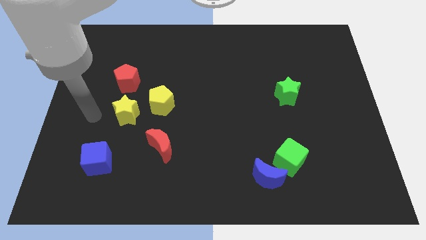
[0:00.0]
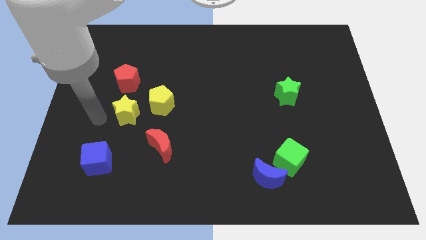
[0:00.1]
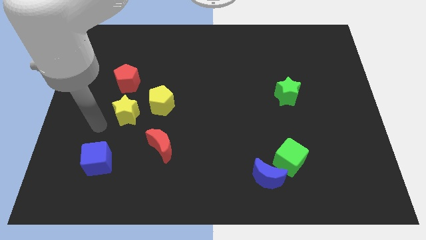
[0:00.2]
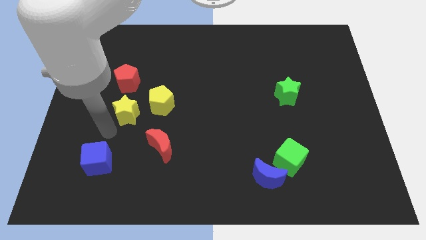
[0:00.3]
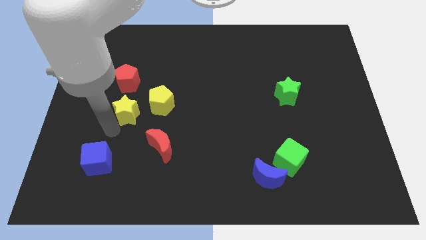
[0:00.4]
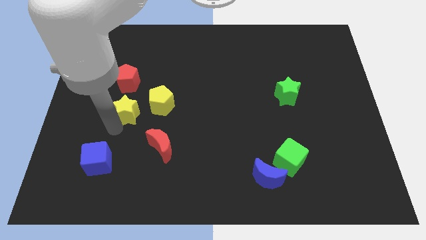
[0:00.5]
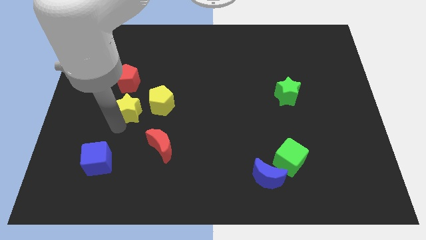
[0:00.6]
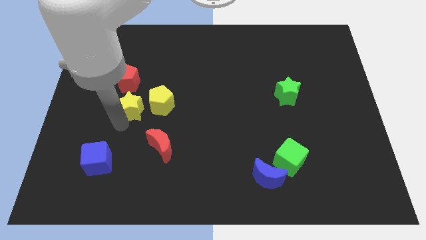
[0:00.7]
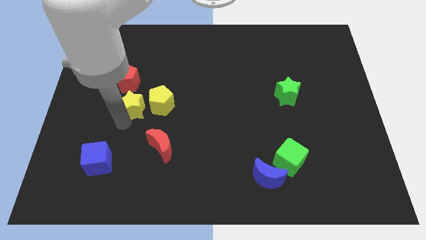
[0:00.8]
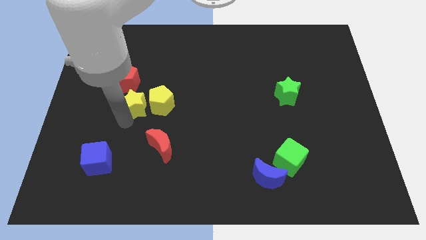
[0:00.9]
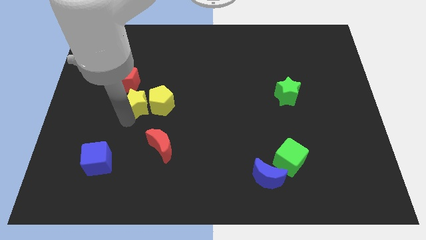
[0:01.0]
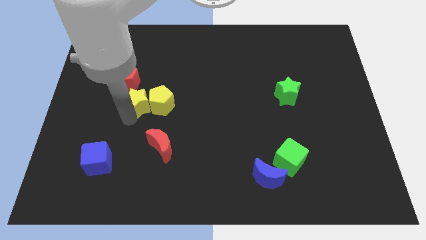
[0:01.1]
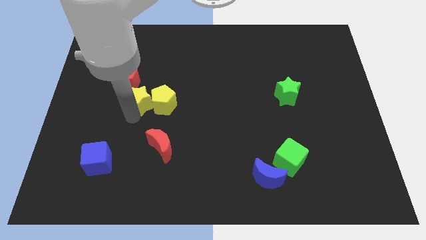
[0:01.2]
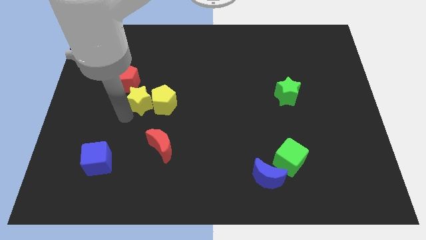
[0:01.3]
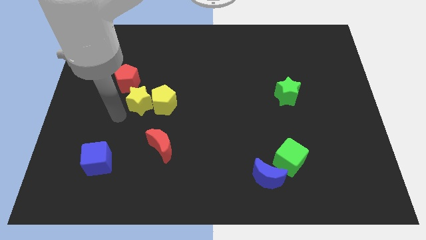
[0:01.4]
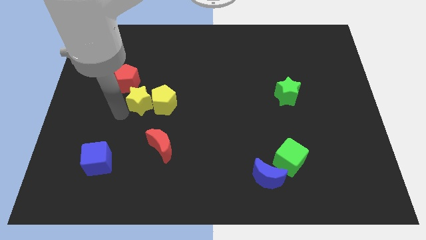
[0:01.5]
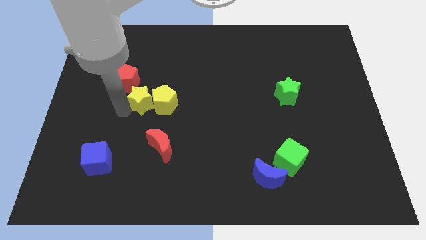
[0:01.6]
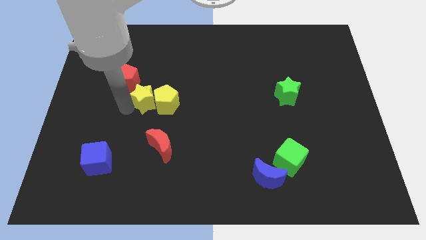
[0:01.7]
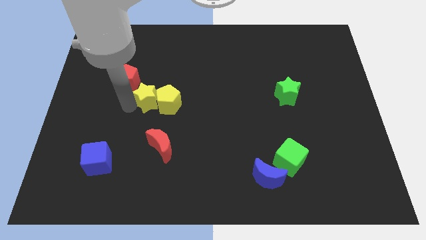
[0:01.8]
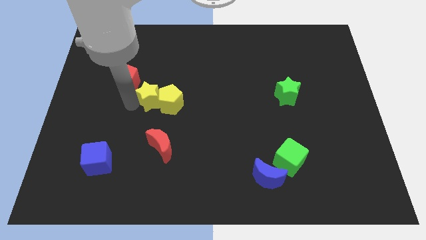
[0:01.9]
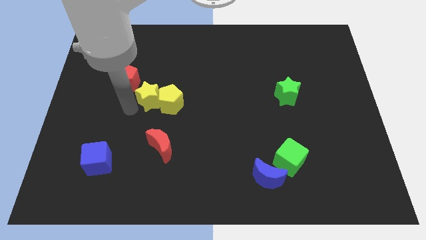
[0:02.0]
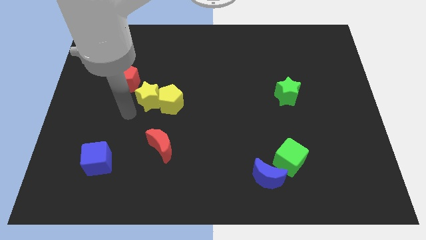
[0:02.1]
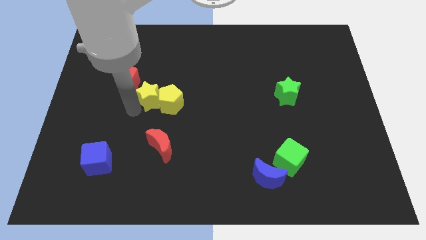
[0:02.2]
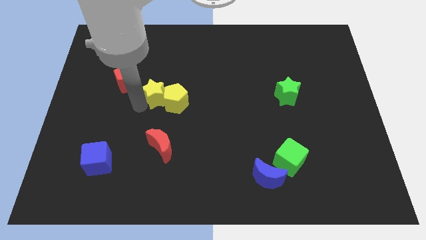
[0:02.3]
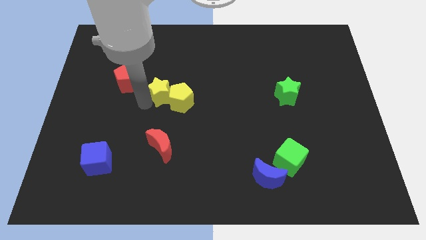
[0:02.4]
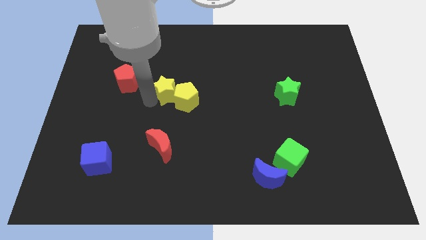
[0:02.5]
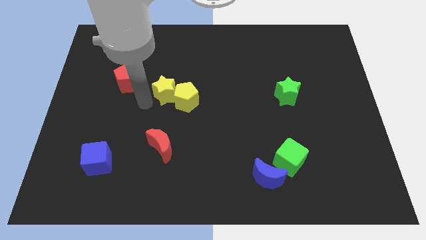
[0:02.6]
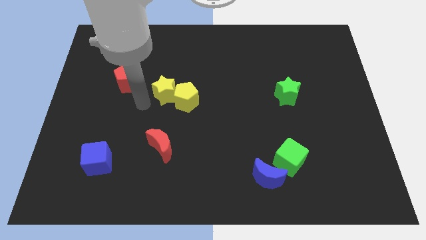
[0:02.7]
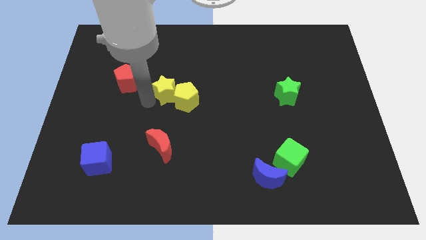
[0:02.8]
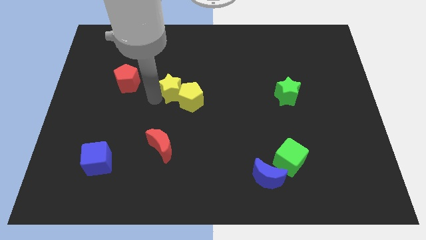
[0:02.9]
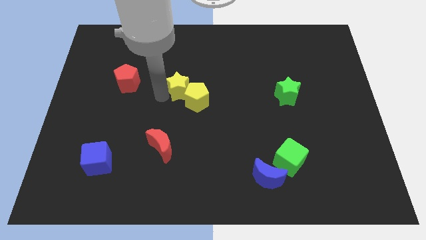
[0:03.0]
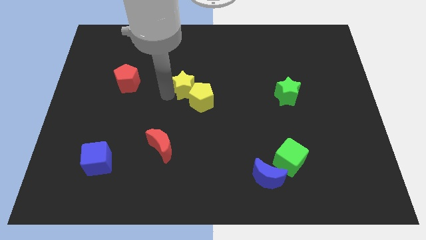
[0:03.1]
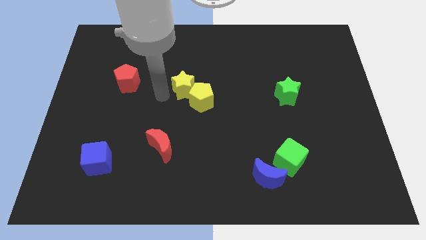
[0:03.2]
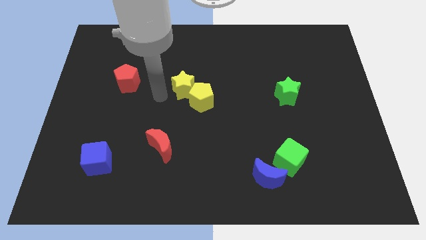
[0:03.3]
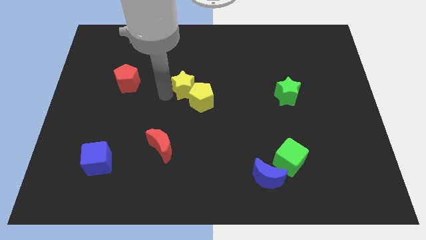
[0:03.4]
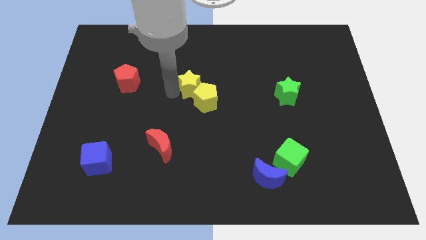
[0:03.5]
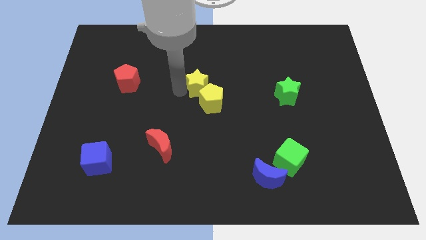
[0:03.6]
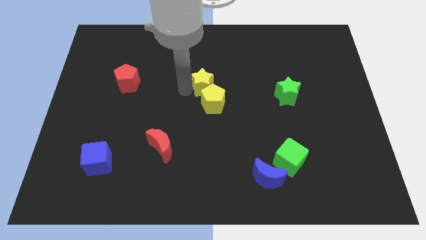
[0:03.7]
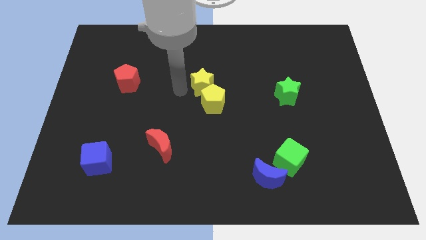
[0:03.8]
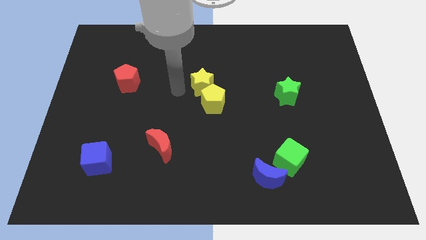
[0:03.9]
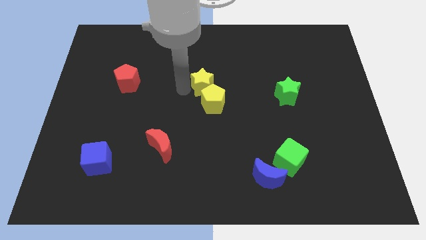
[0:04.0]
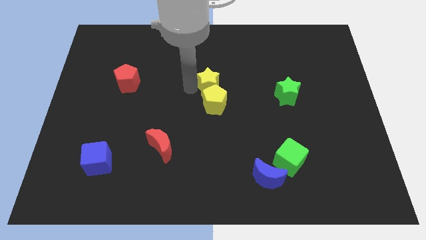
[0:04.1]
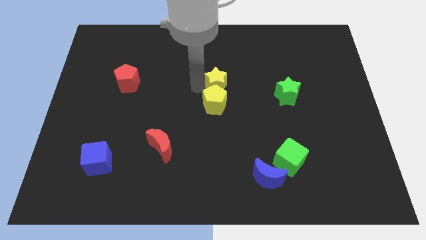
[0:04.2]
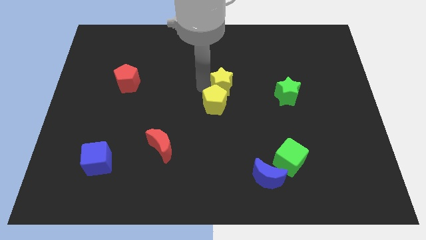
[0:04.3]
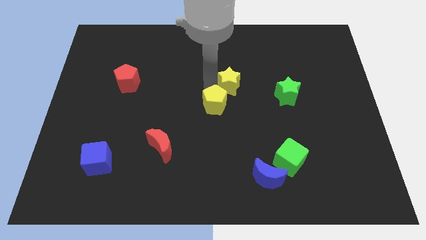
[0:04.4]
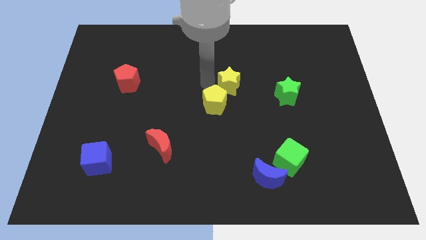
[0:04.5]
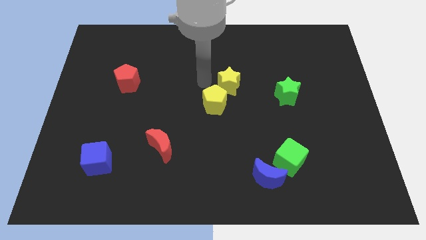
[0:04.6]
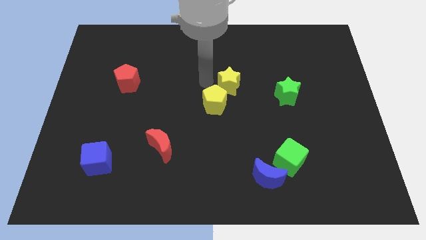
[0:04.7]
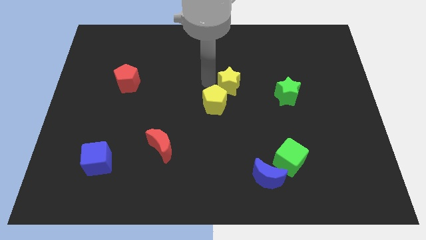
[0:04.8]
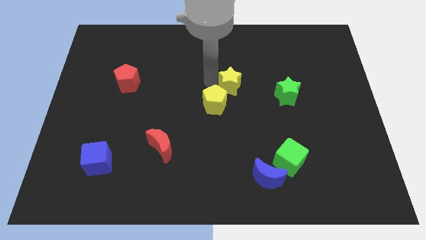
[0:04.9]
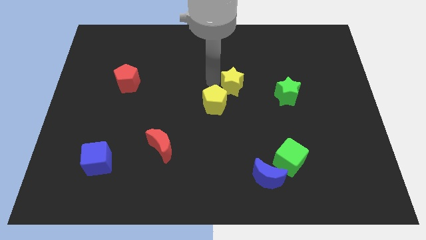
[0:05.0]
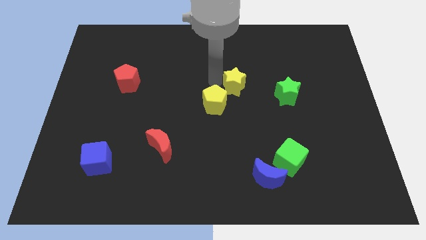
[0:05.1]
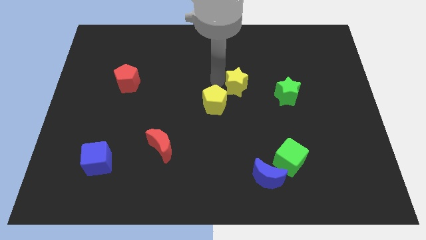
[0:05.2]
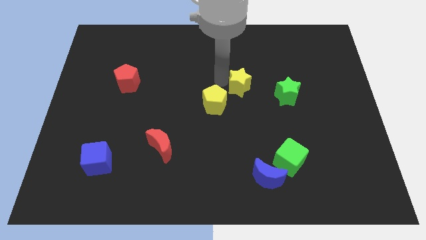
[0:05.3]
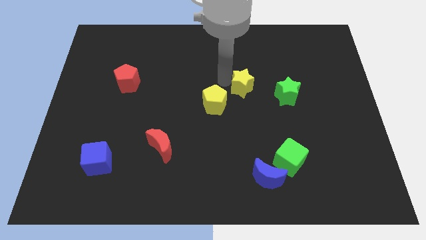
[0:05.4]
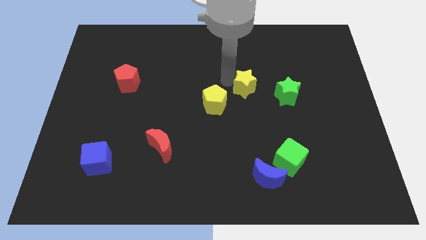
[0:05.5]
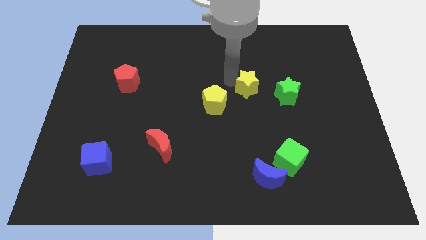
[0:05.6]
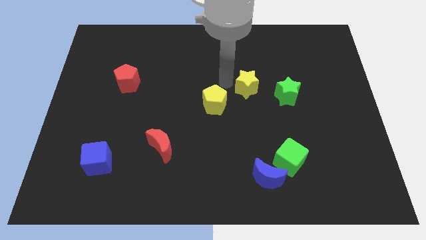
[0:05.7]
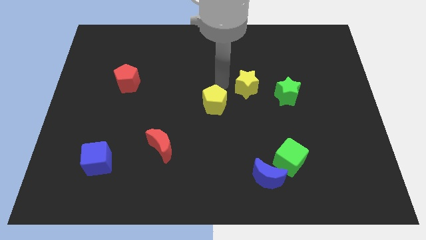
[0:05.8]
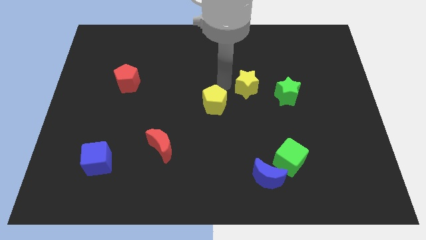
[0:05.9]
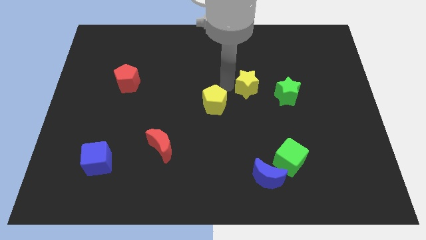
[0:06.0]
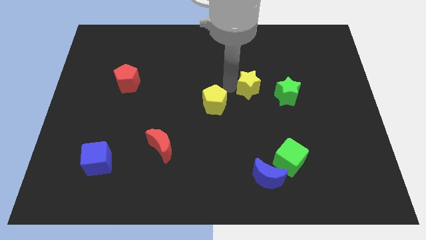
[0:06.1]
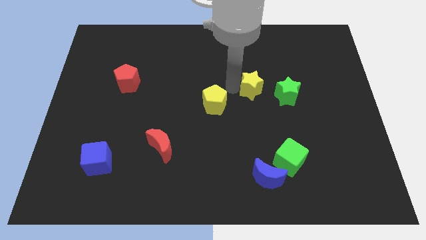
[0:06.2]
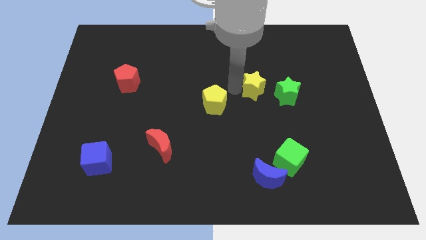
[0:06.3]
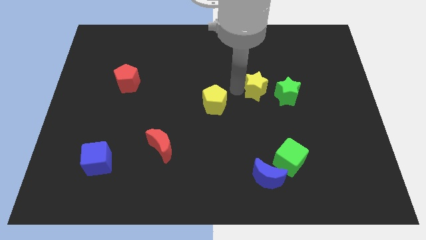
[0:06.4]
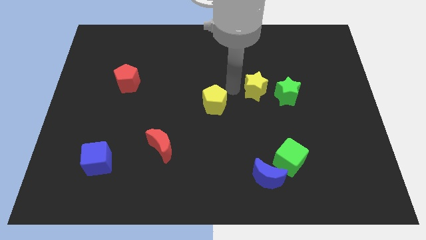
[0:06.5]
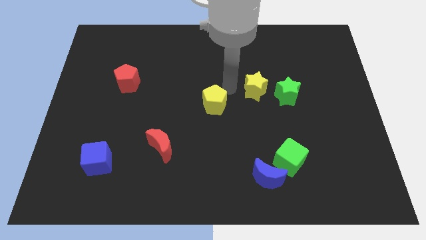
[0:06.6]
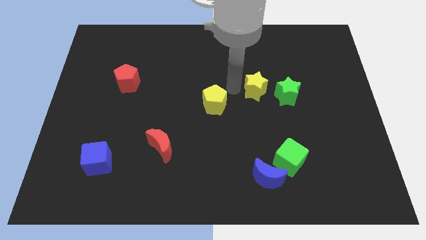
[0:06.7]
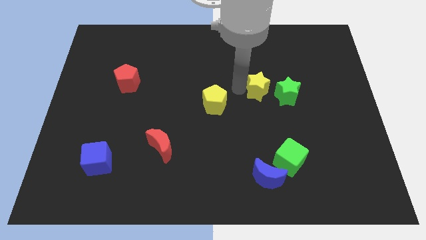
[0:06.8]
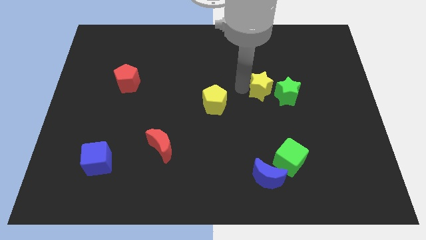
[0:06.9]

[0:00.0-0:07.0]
push the yellow star to the green star

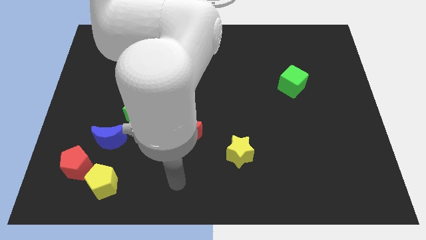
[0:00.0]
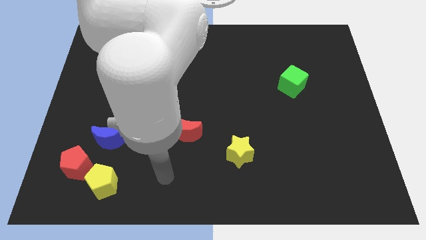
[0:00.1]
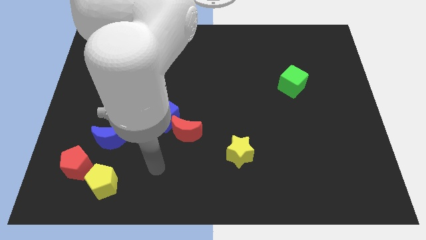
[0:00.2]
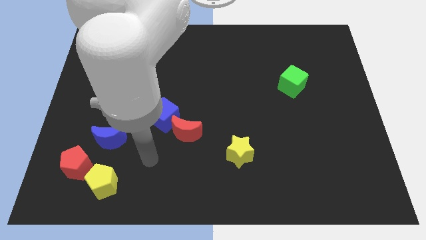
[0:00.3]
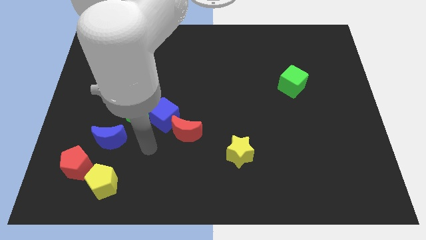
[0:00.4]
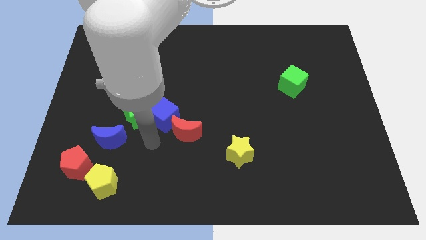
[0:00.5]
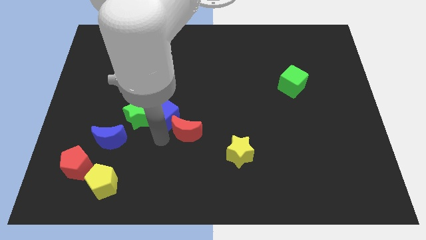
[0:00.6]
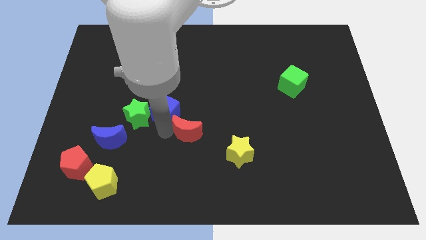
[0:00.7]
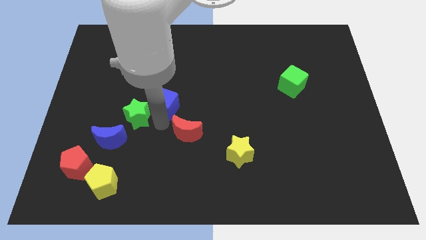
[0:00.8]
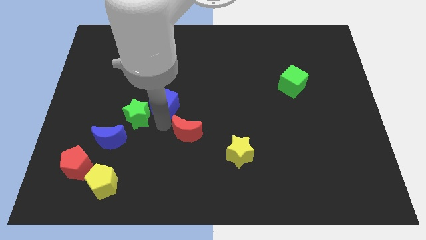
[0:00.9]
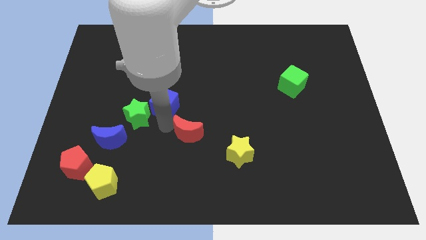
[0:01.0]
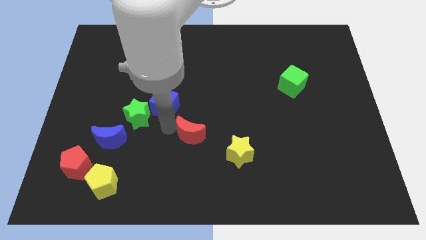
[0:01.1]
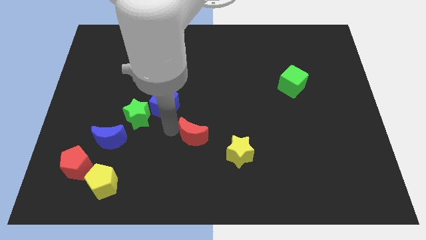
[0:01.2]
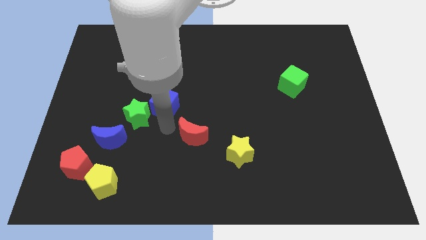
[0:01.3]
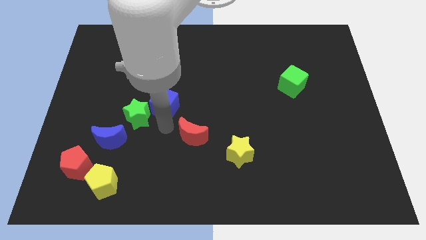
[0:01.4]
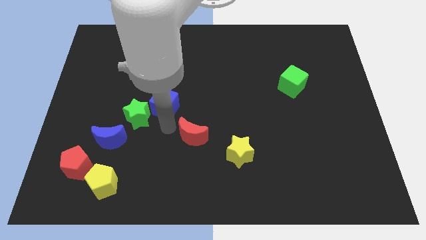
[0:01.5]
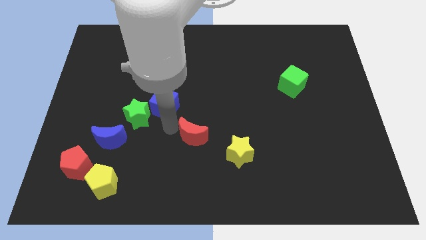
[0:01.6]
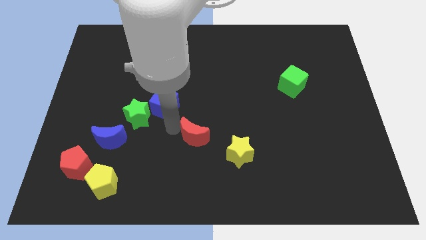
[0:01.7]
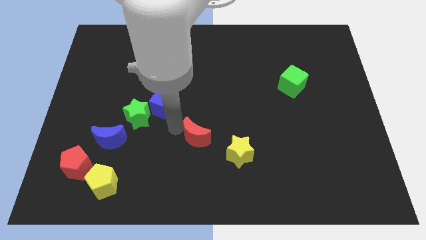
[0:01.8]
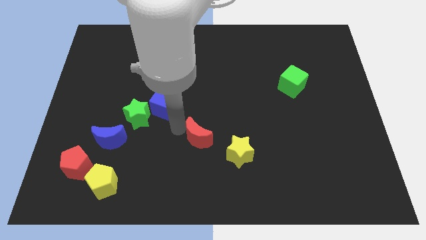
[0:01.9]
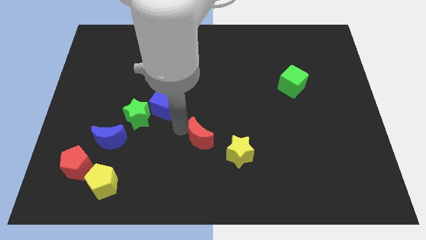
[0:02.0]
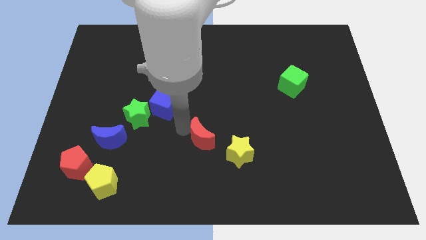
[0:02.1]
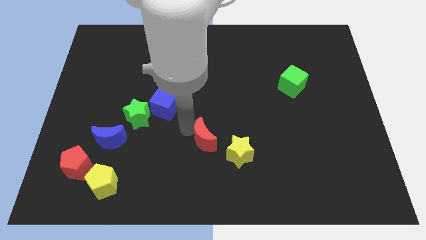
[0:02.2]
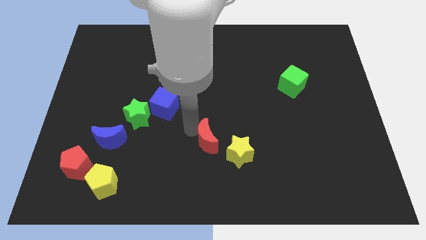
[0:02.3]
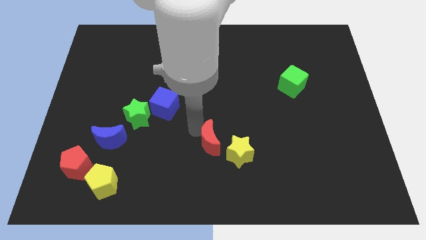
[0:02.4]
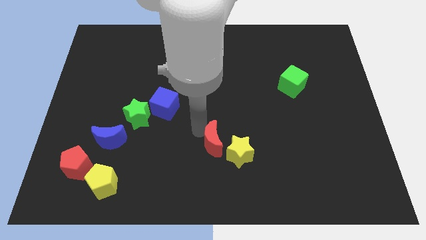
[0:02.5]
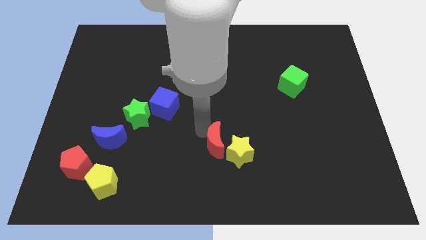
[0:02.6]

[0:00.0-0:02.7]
push the red moon towards the yellow star
